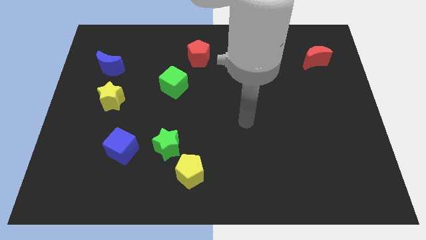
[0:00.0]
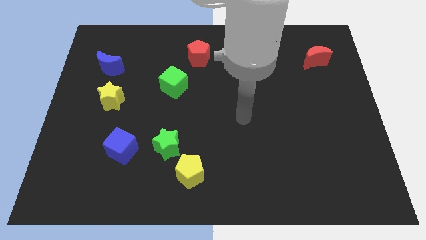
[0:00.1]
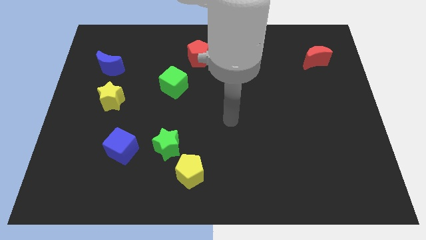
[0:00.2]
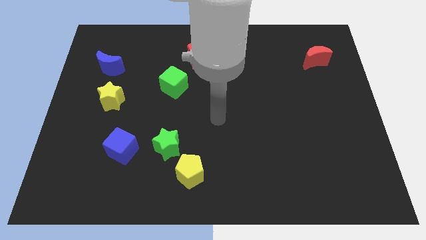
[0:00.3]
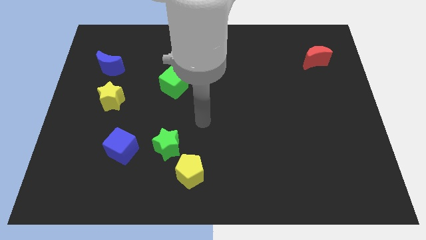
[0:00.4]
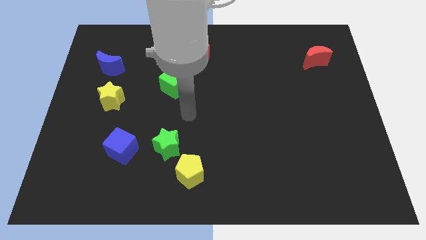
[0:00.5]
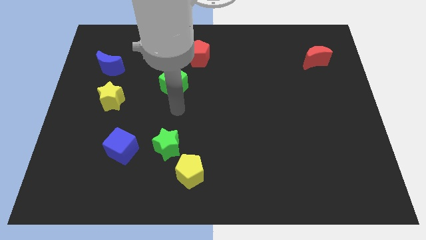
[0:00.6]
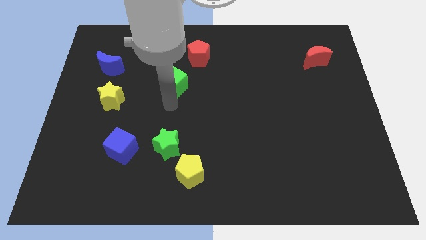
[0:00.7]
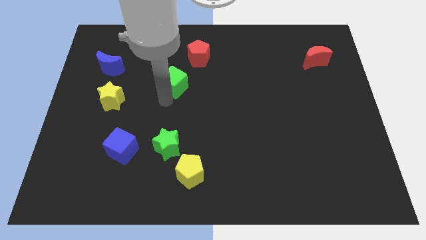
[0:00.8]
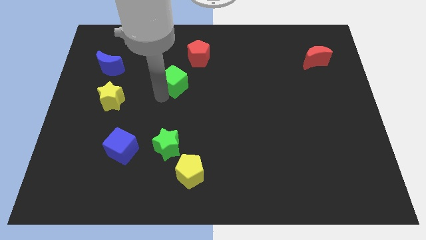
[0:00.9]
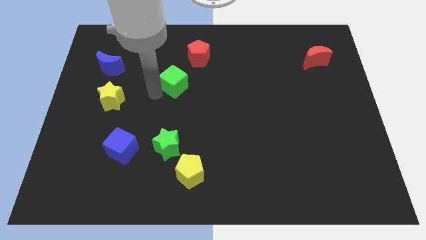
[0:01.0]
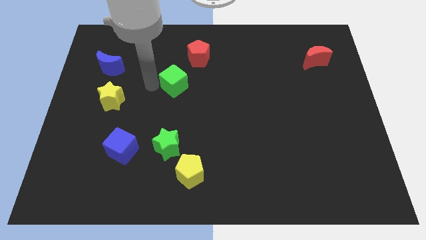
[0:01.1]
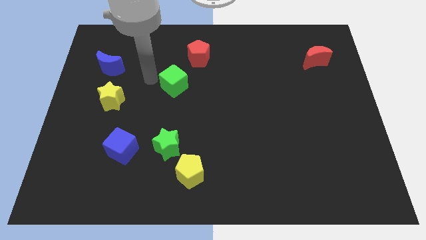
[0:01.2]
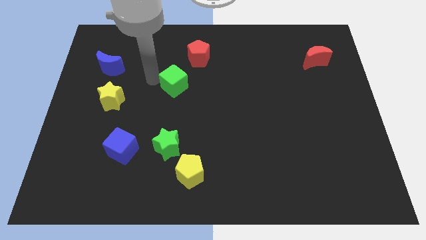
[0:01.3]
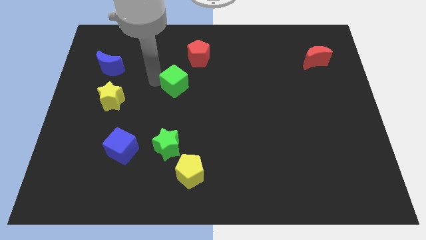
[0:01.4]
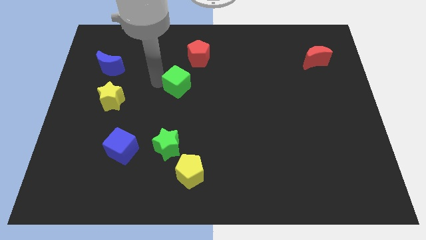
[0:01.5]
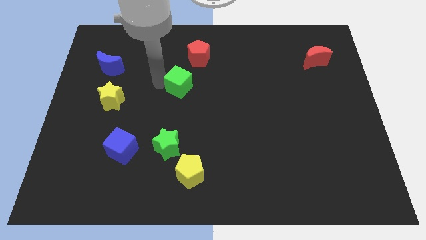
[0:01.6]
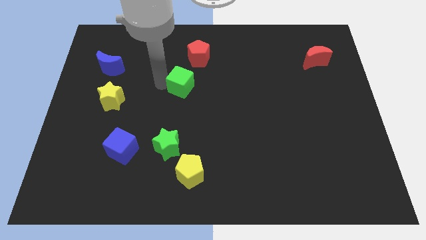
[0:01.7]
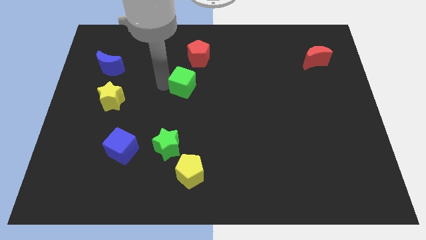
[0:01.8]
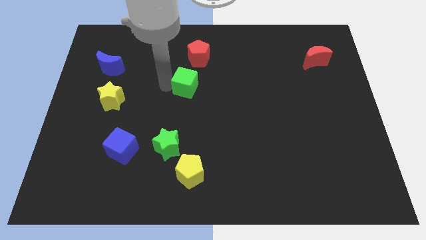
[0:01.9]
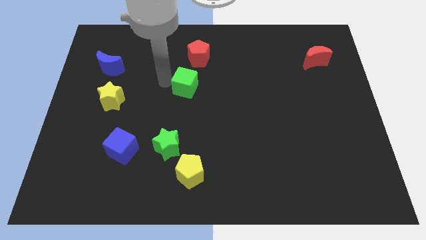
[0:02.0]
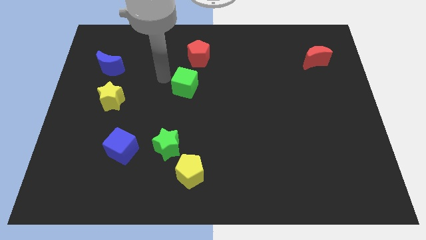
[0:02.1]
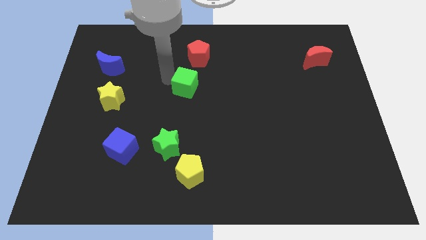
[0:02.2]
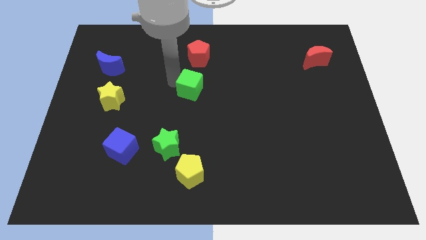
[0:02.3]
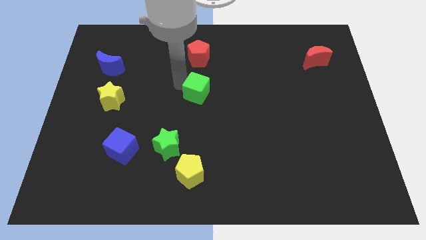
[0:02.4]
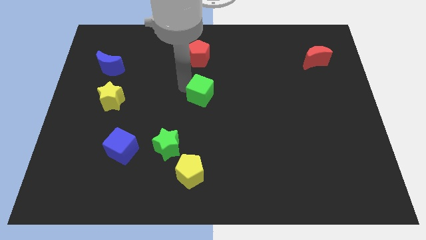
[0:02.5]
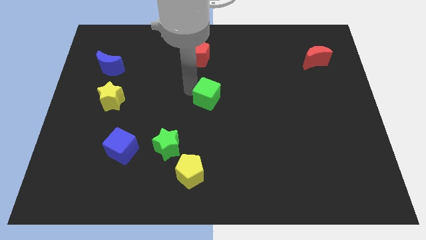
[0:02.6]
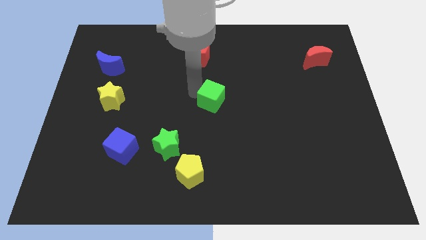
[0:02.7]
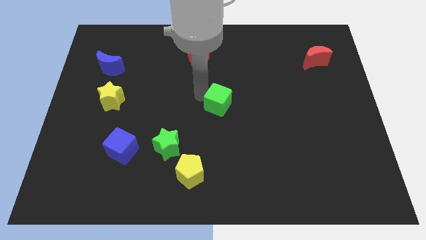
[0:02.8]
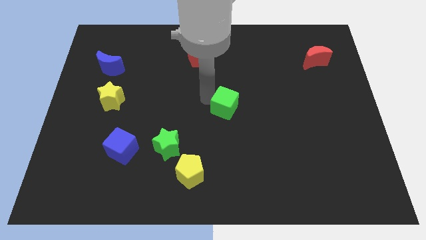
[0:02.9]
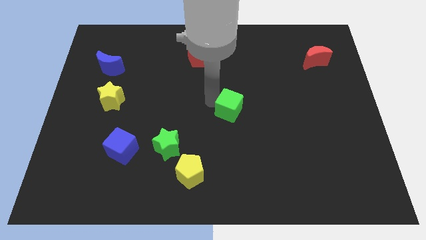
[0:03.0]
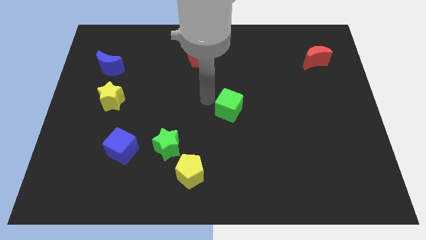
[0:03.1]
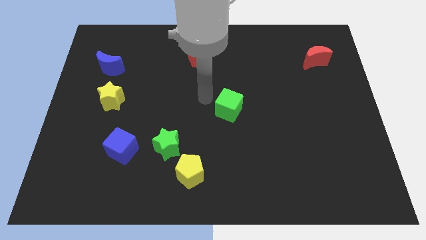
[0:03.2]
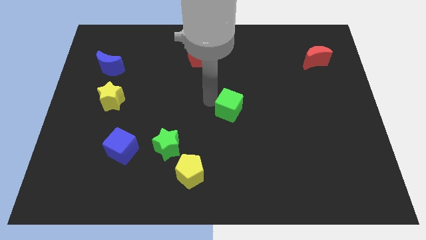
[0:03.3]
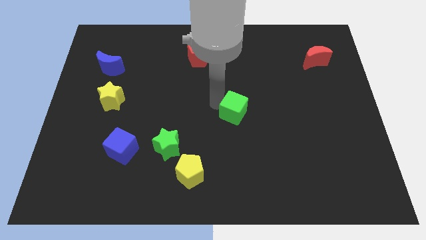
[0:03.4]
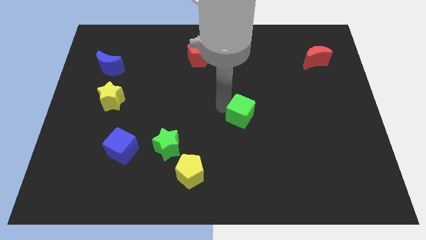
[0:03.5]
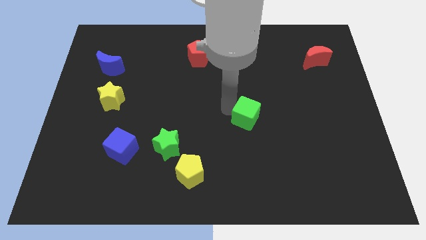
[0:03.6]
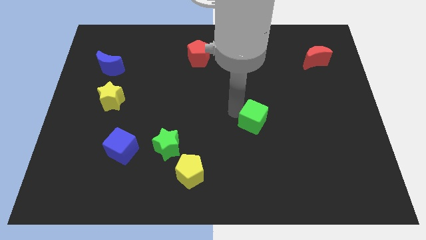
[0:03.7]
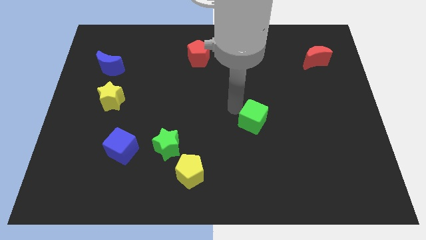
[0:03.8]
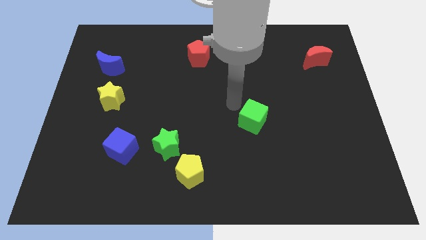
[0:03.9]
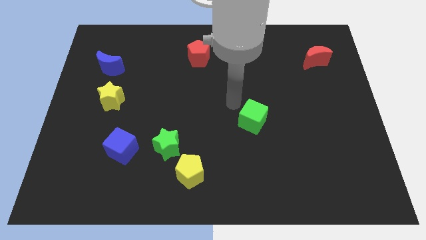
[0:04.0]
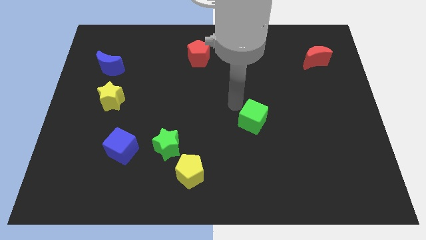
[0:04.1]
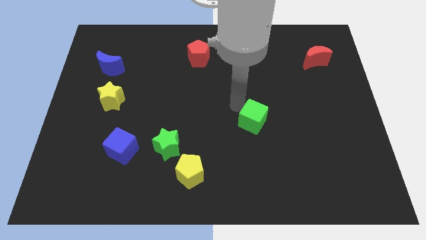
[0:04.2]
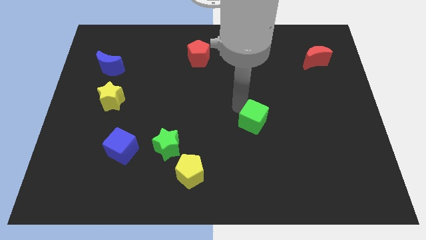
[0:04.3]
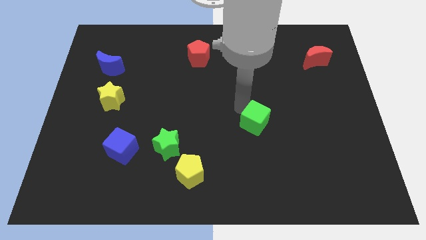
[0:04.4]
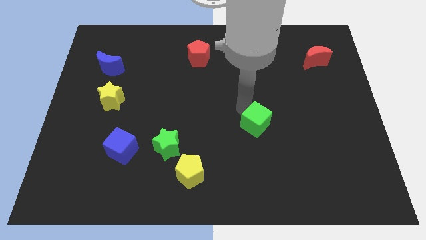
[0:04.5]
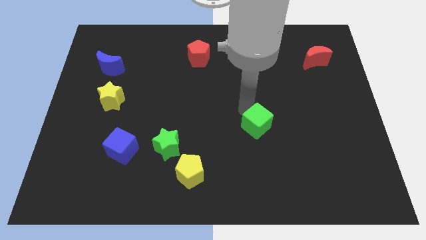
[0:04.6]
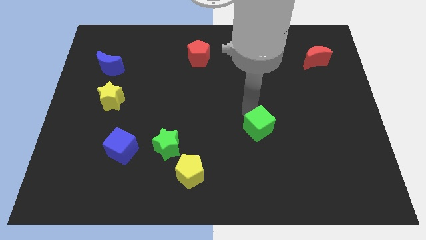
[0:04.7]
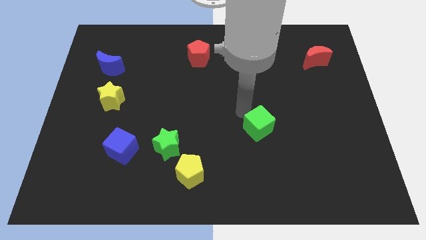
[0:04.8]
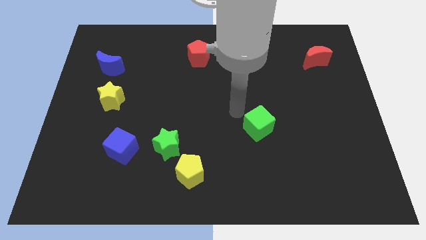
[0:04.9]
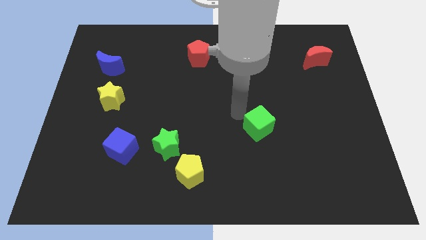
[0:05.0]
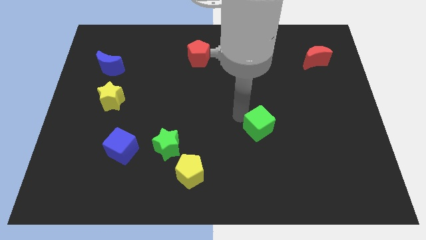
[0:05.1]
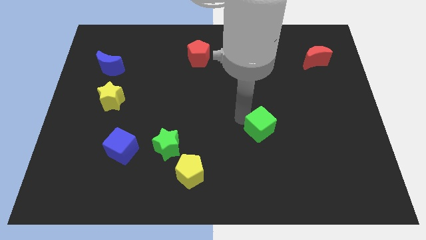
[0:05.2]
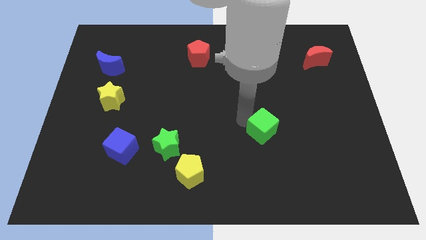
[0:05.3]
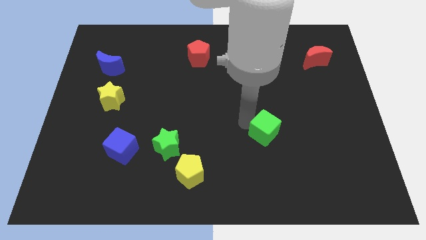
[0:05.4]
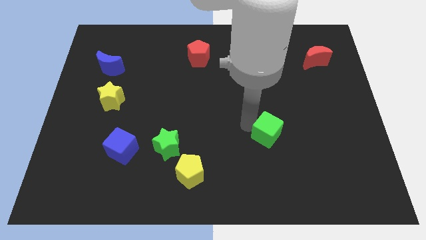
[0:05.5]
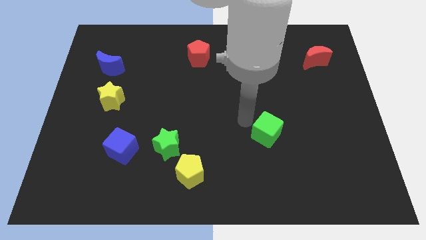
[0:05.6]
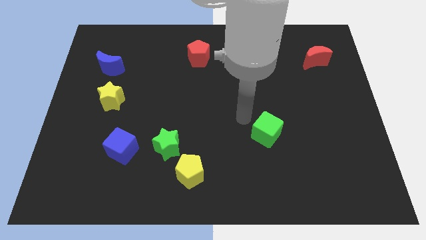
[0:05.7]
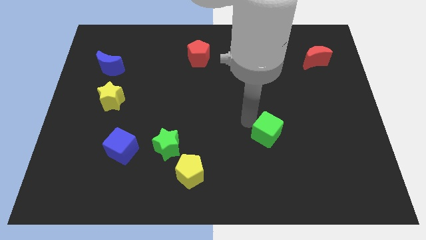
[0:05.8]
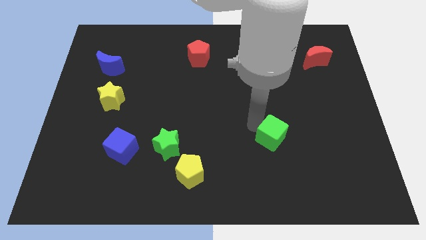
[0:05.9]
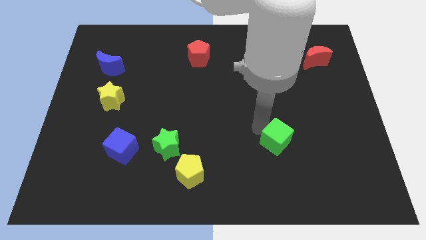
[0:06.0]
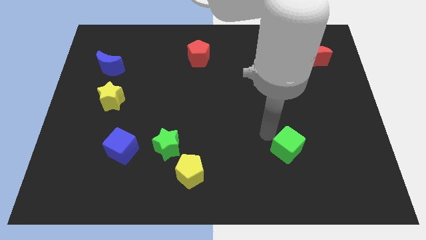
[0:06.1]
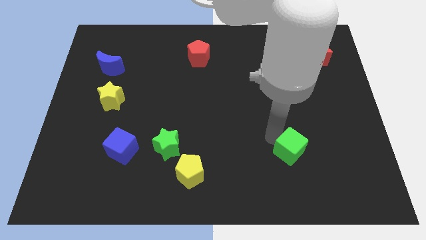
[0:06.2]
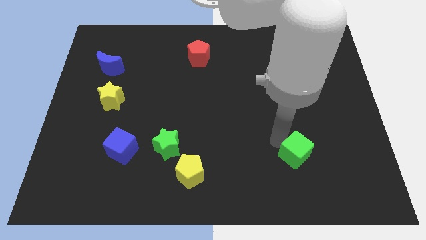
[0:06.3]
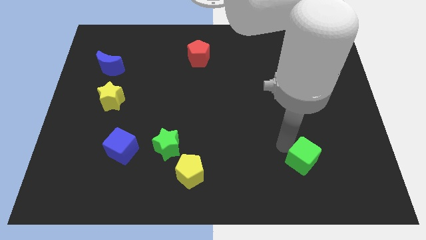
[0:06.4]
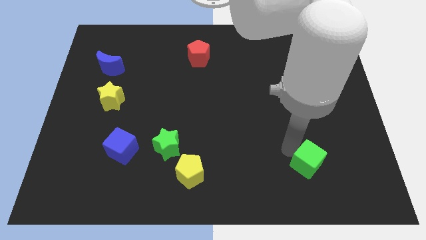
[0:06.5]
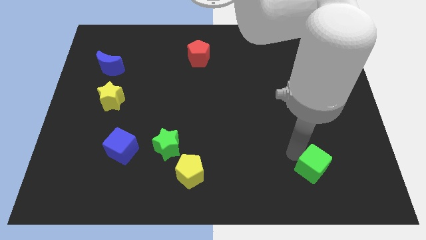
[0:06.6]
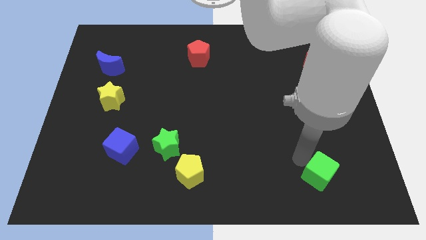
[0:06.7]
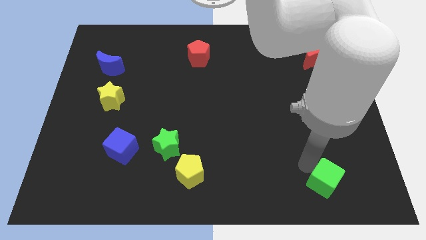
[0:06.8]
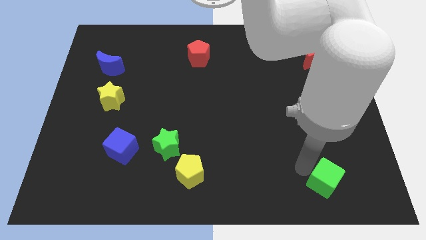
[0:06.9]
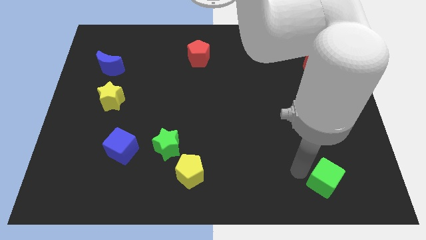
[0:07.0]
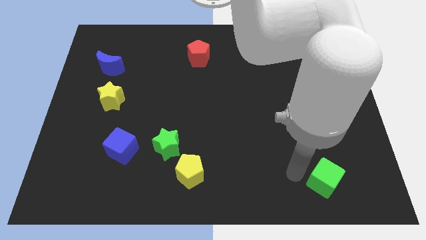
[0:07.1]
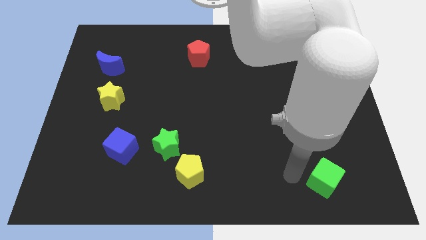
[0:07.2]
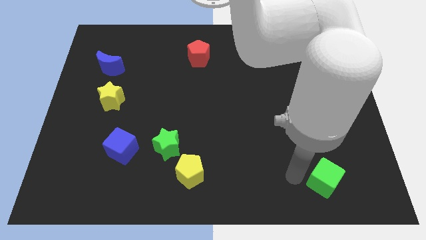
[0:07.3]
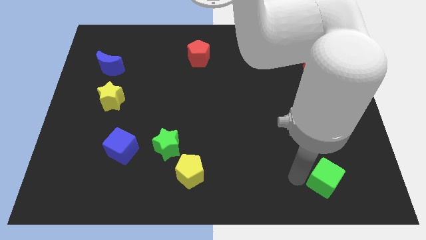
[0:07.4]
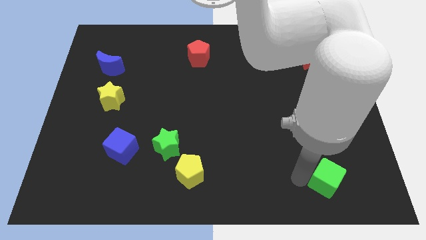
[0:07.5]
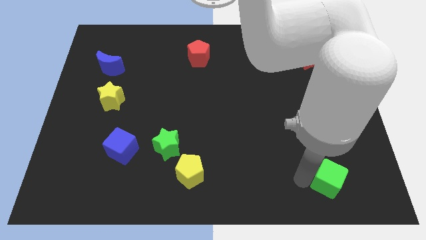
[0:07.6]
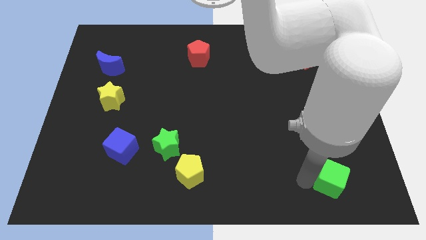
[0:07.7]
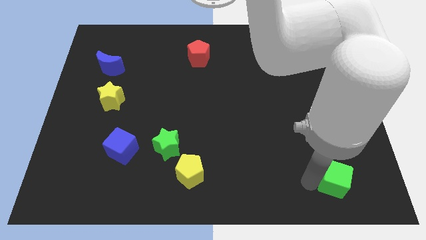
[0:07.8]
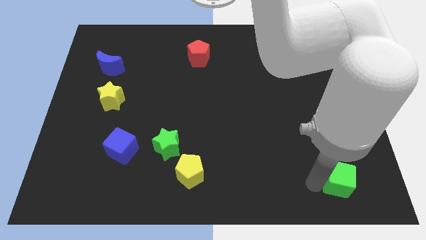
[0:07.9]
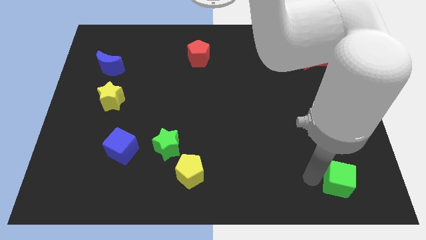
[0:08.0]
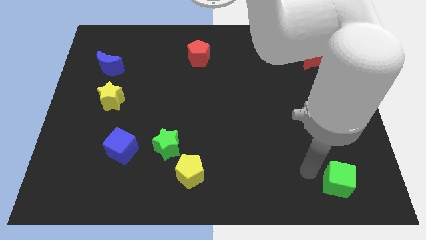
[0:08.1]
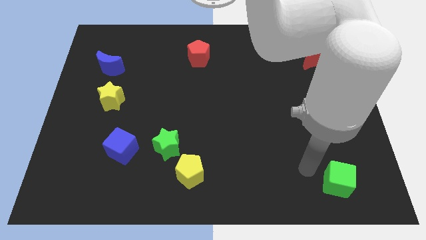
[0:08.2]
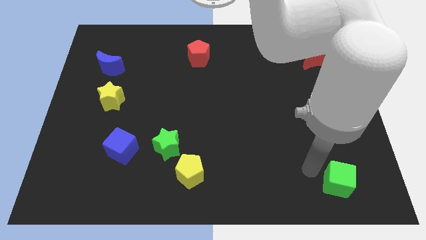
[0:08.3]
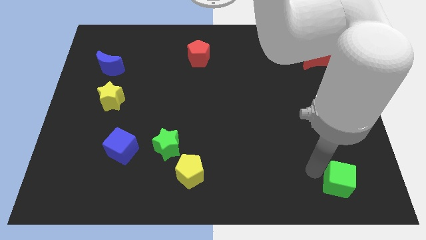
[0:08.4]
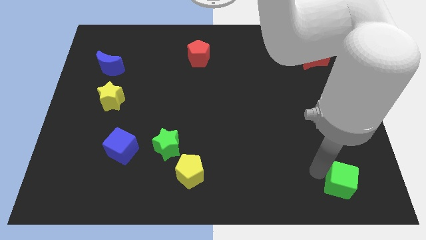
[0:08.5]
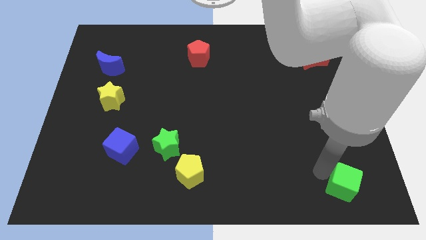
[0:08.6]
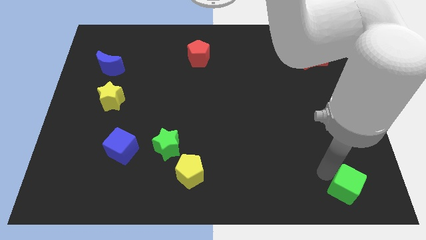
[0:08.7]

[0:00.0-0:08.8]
move the green cube to the bottom right of the board
